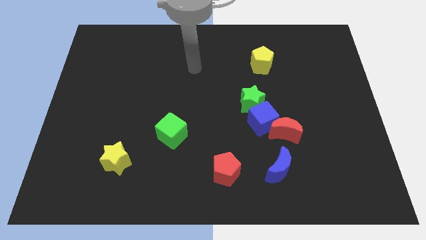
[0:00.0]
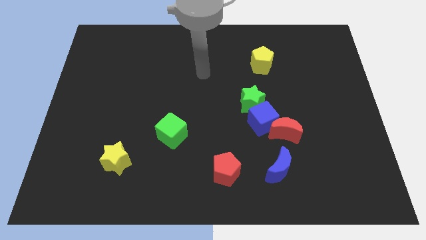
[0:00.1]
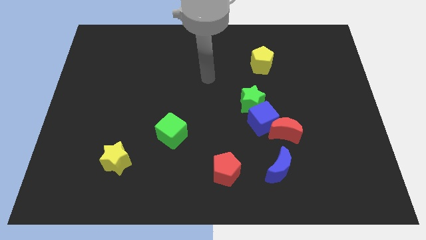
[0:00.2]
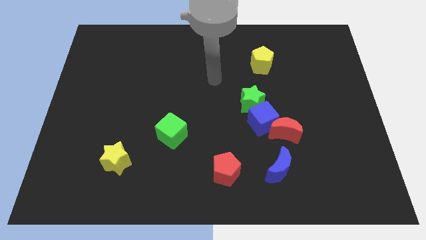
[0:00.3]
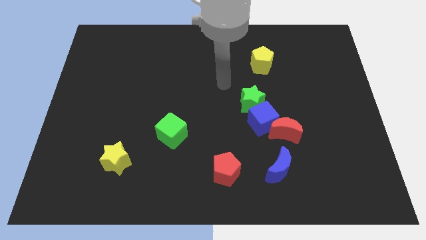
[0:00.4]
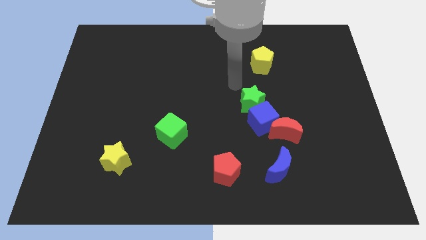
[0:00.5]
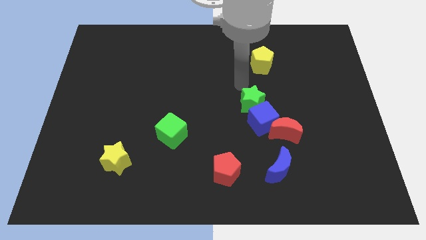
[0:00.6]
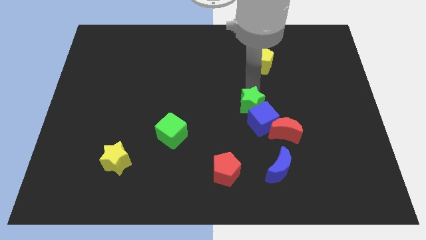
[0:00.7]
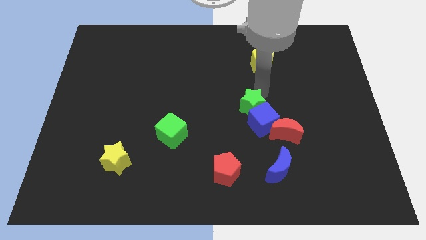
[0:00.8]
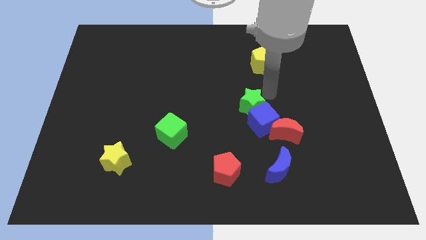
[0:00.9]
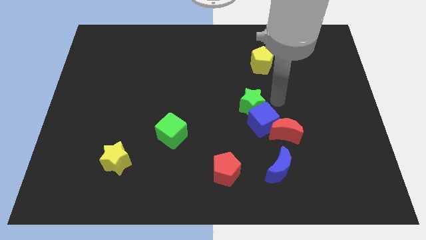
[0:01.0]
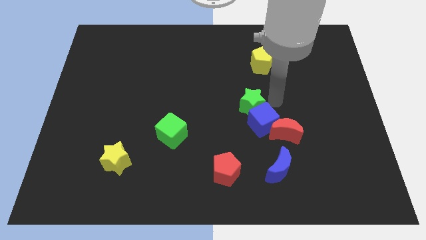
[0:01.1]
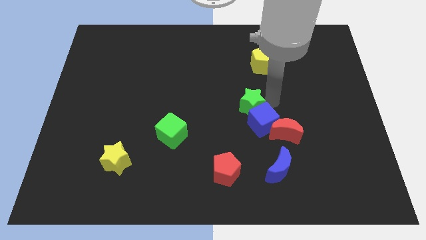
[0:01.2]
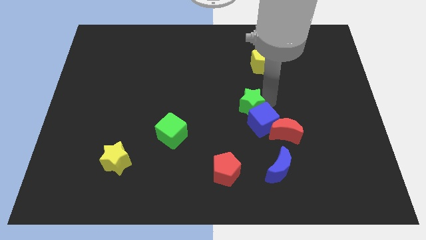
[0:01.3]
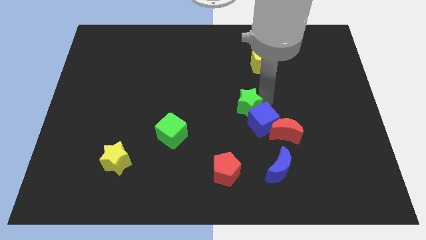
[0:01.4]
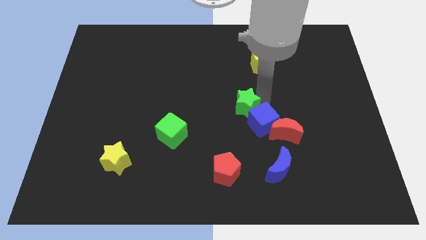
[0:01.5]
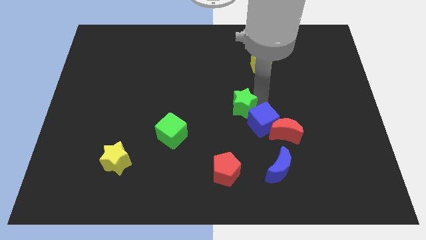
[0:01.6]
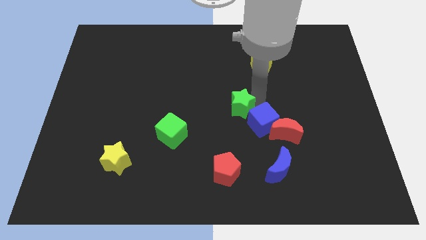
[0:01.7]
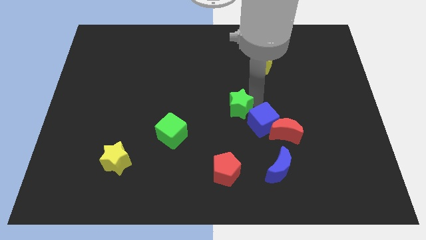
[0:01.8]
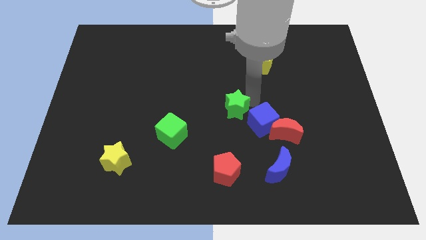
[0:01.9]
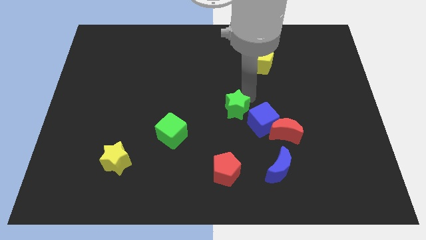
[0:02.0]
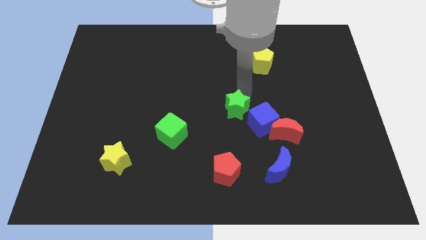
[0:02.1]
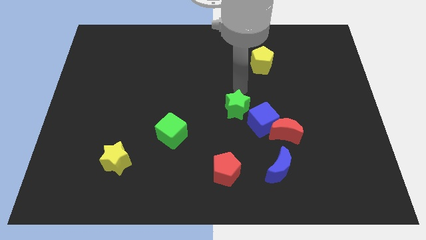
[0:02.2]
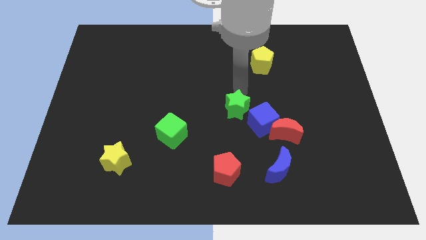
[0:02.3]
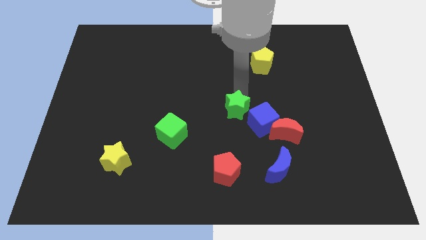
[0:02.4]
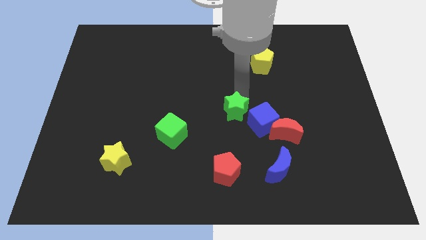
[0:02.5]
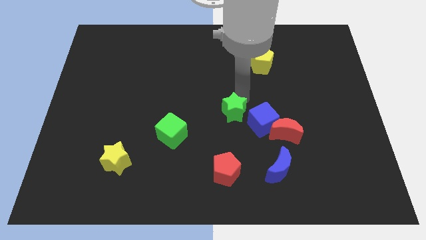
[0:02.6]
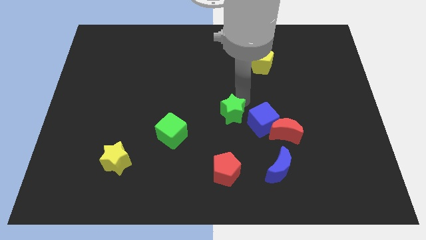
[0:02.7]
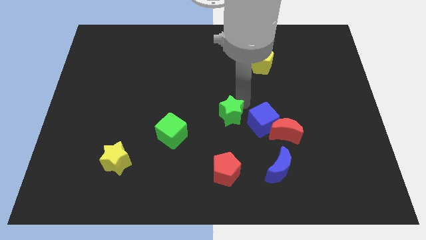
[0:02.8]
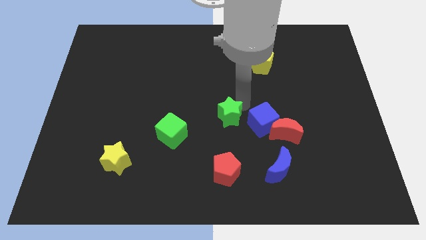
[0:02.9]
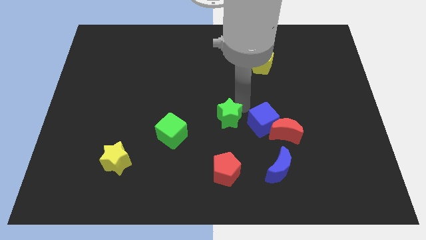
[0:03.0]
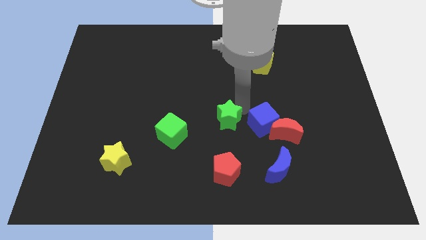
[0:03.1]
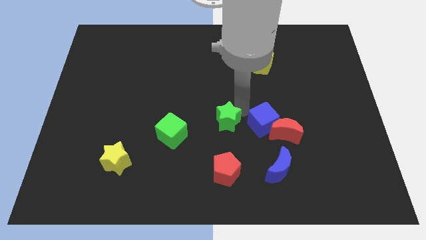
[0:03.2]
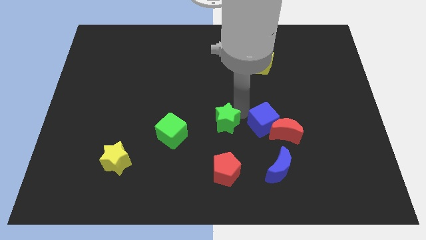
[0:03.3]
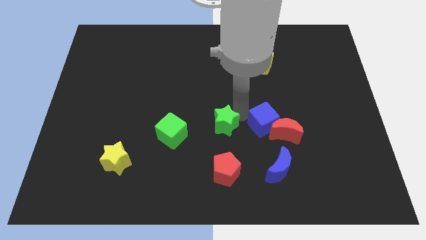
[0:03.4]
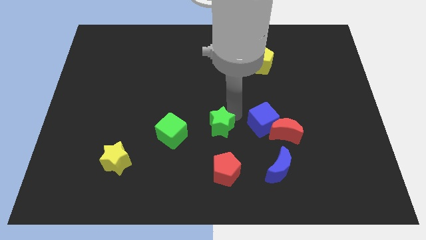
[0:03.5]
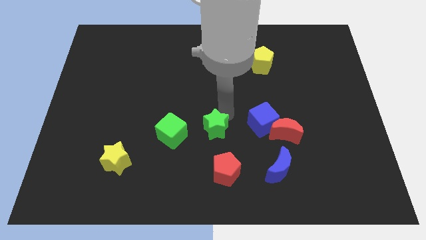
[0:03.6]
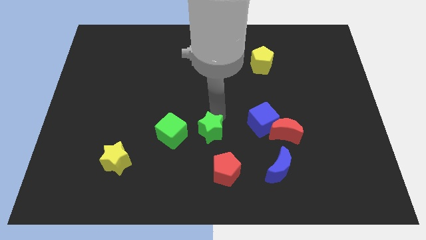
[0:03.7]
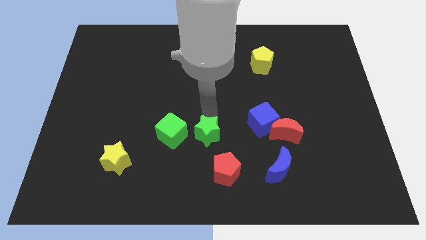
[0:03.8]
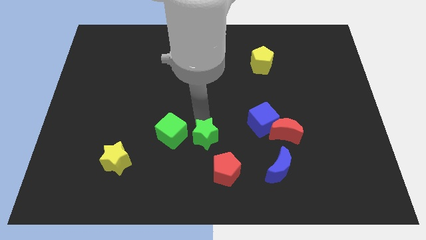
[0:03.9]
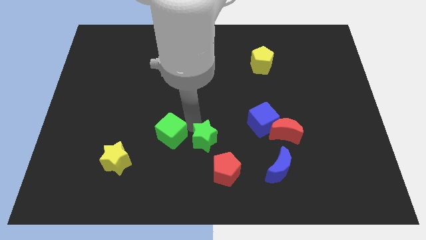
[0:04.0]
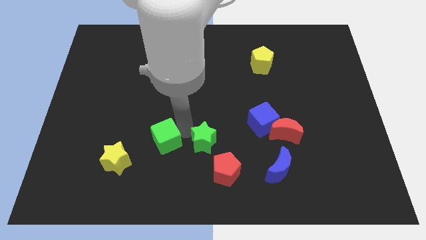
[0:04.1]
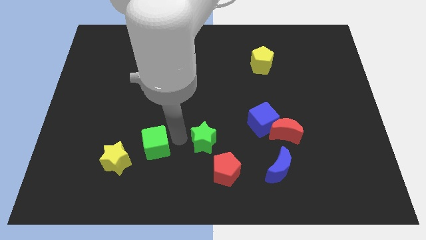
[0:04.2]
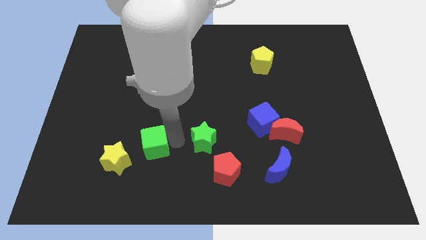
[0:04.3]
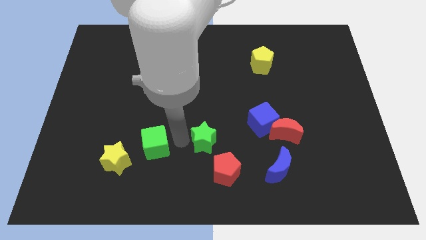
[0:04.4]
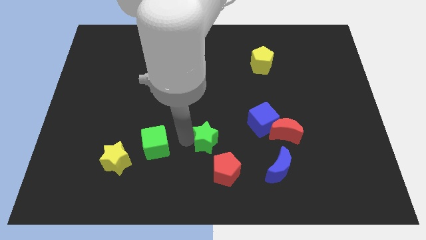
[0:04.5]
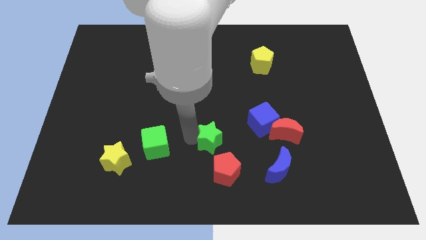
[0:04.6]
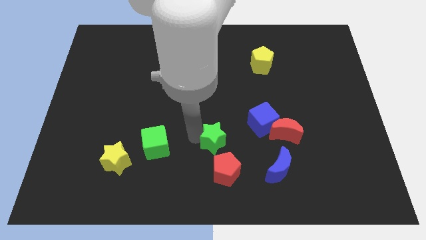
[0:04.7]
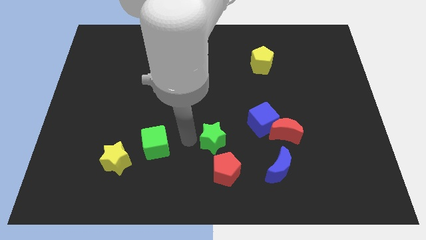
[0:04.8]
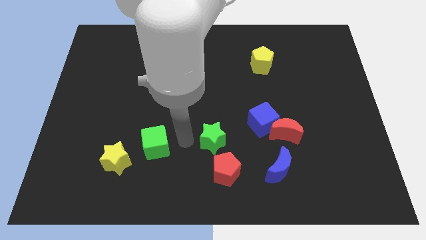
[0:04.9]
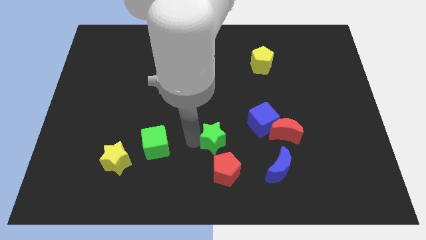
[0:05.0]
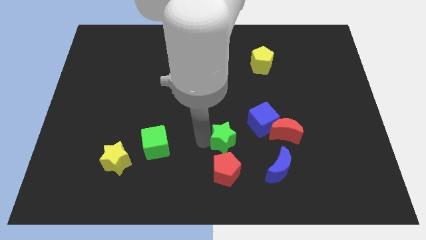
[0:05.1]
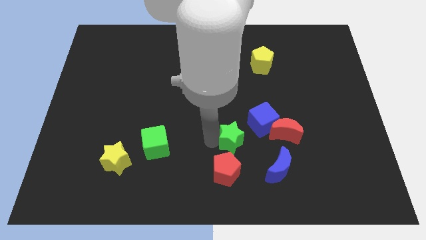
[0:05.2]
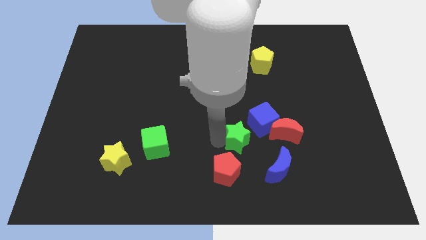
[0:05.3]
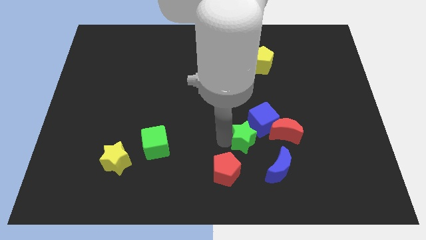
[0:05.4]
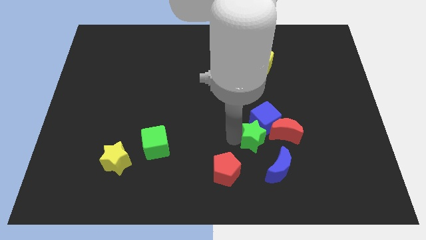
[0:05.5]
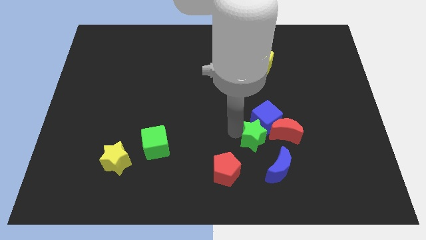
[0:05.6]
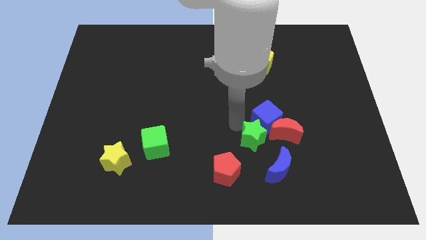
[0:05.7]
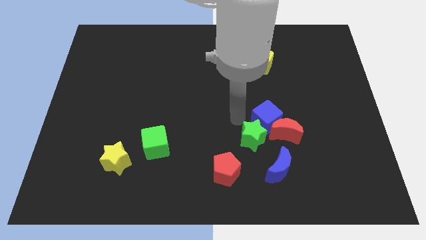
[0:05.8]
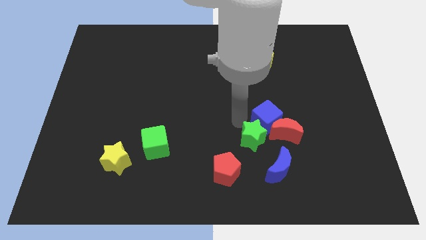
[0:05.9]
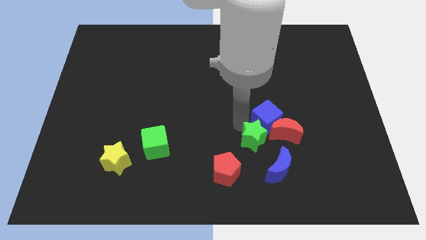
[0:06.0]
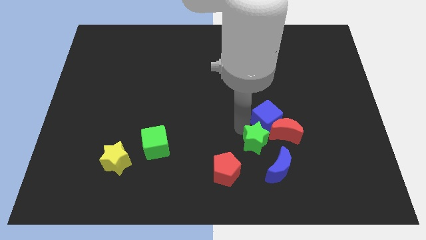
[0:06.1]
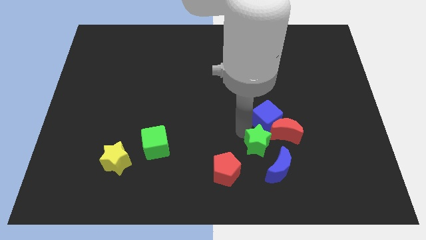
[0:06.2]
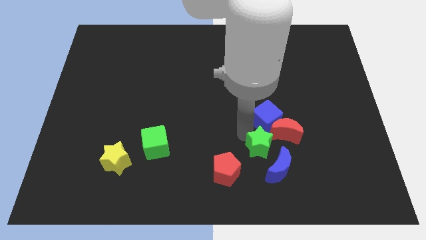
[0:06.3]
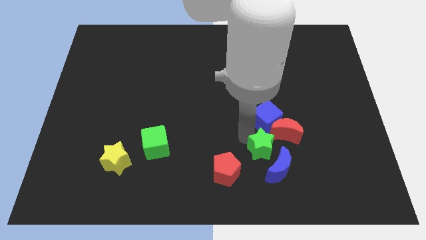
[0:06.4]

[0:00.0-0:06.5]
put the green star close to the blue moon

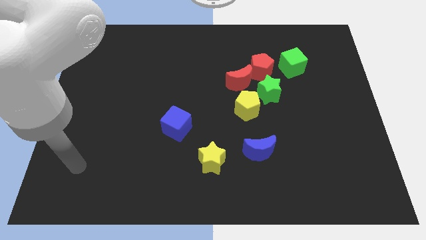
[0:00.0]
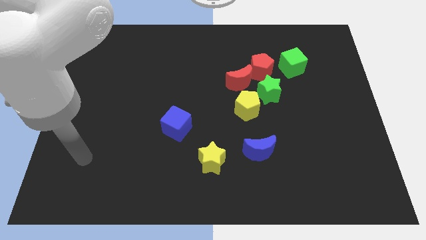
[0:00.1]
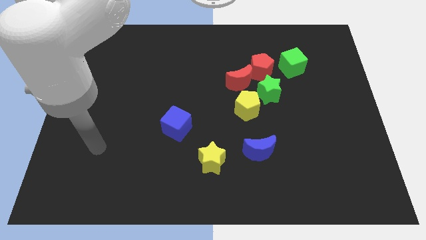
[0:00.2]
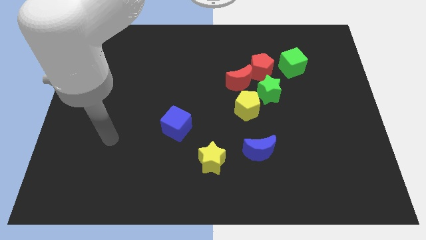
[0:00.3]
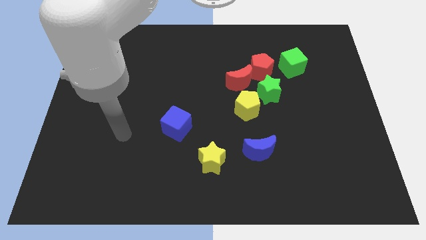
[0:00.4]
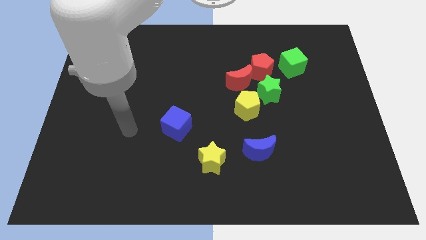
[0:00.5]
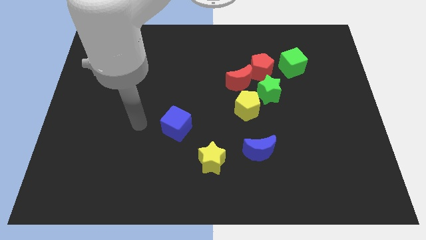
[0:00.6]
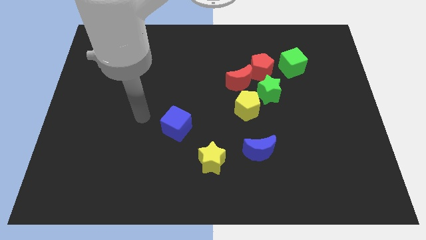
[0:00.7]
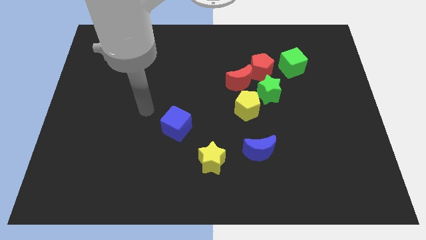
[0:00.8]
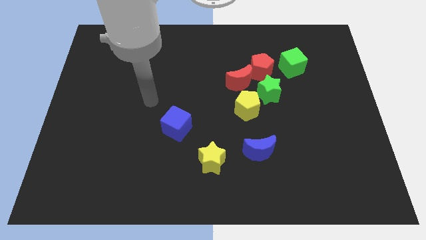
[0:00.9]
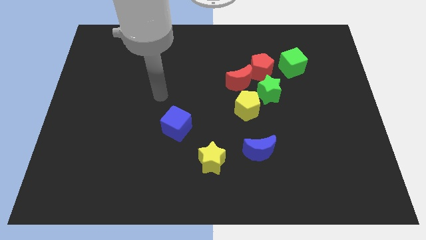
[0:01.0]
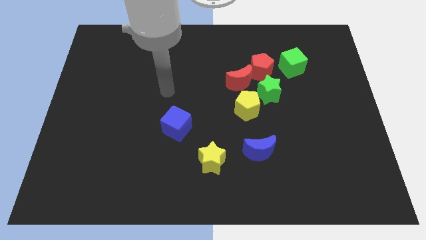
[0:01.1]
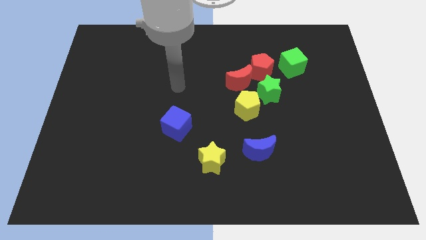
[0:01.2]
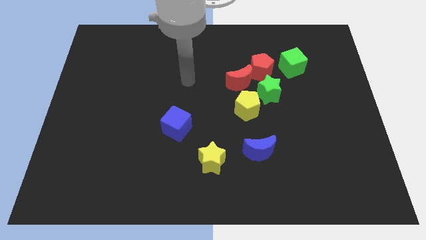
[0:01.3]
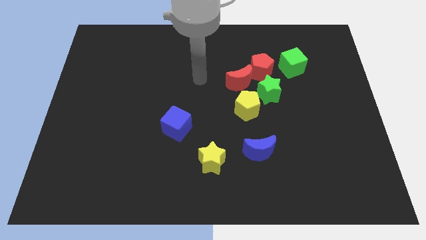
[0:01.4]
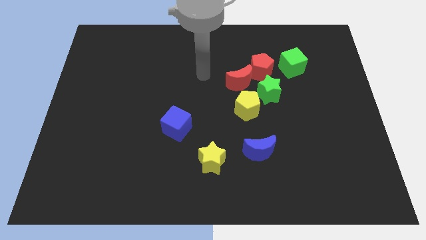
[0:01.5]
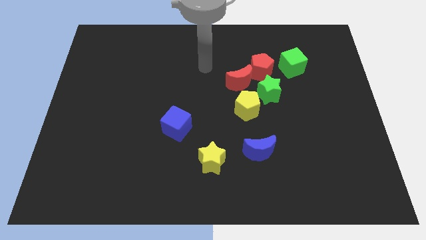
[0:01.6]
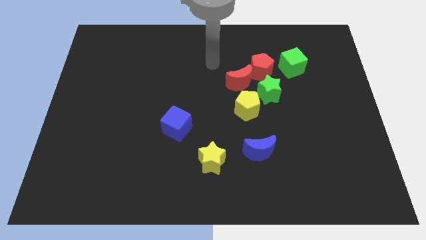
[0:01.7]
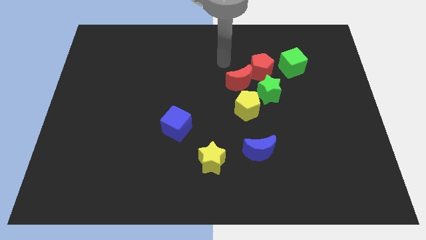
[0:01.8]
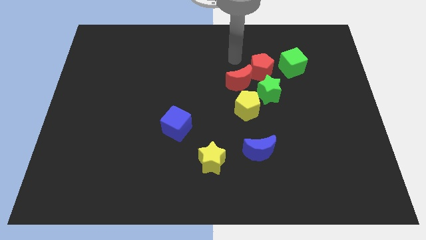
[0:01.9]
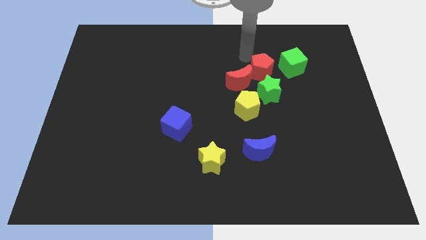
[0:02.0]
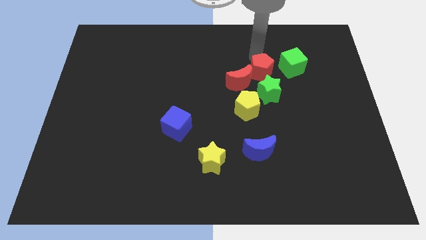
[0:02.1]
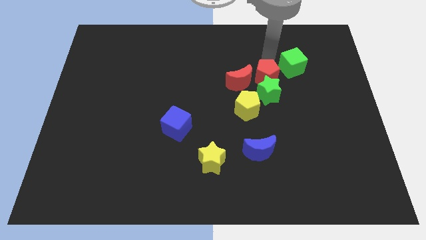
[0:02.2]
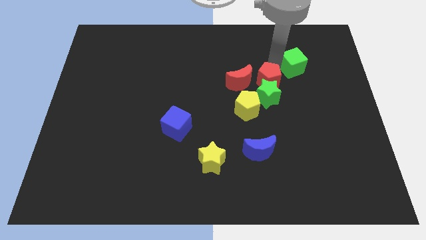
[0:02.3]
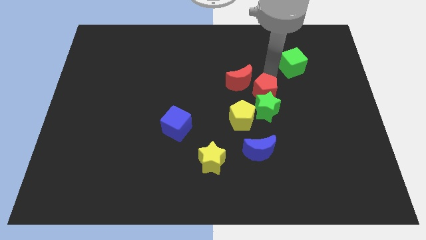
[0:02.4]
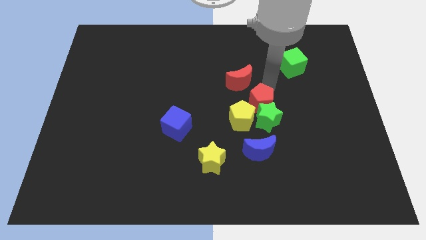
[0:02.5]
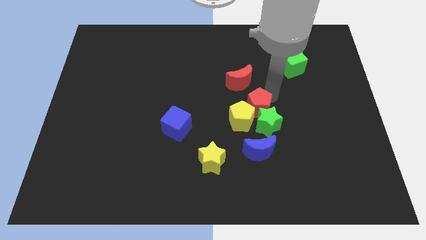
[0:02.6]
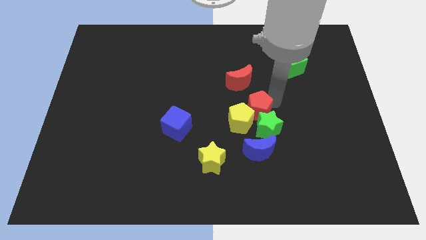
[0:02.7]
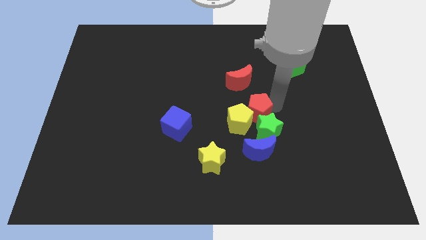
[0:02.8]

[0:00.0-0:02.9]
move the green star next to the blue moon
